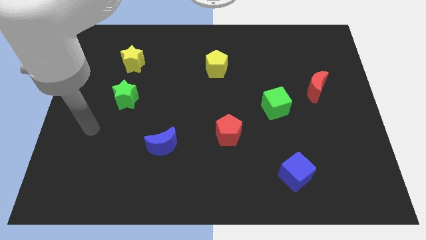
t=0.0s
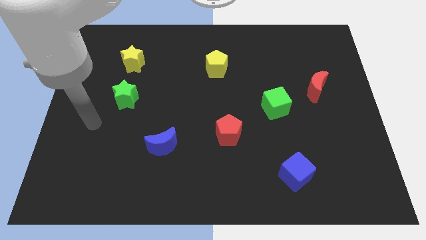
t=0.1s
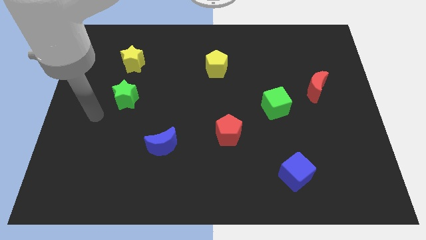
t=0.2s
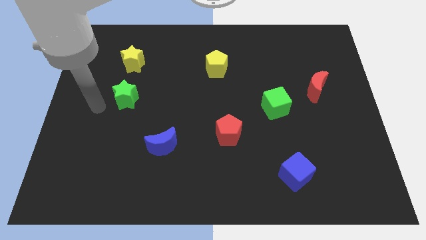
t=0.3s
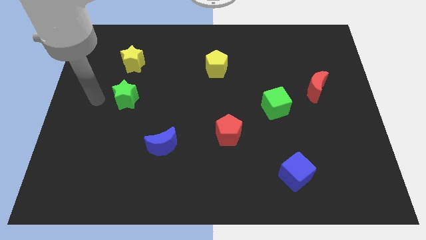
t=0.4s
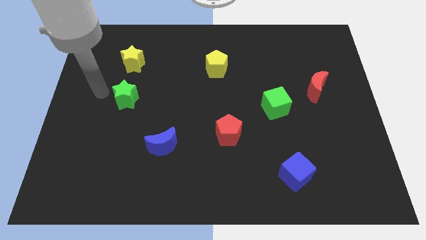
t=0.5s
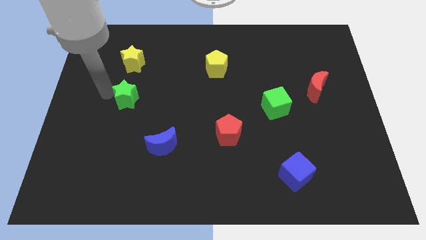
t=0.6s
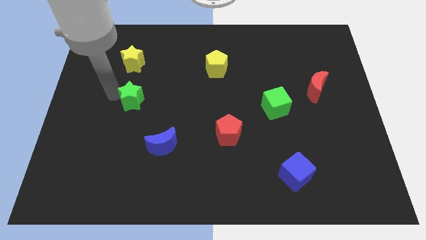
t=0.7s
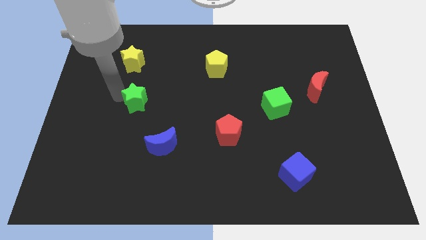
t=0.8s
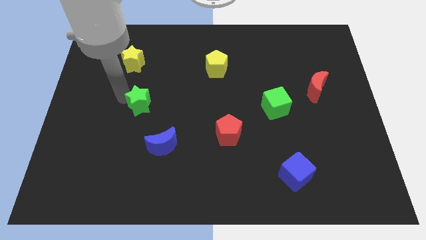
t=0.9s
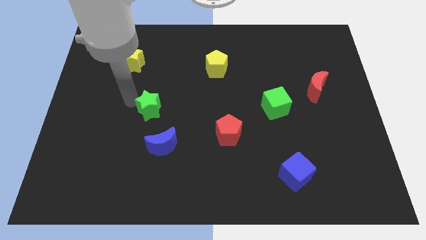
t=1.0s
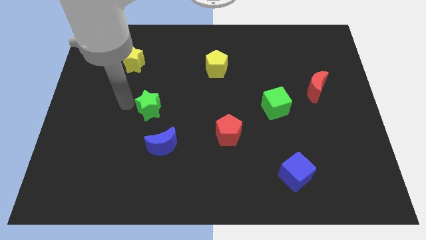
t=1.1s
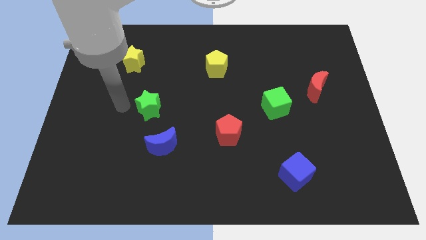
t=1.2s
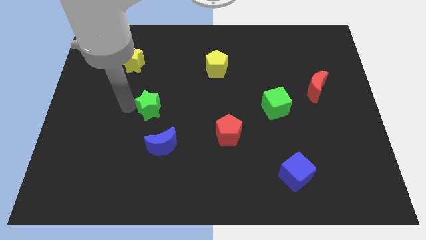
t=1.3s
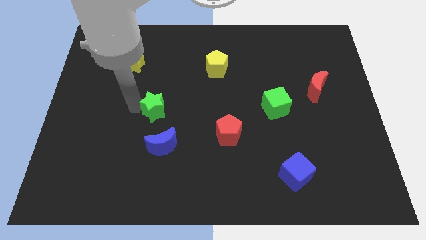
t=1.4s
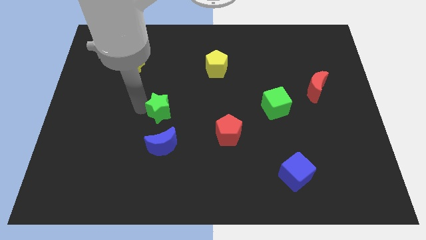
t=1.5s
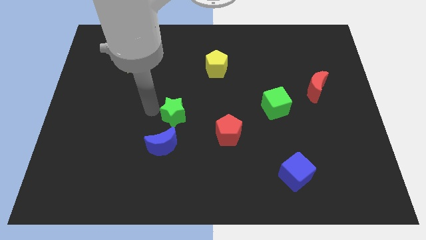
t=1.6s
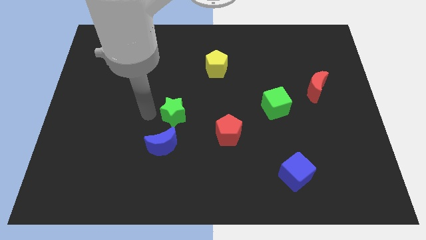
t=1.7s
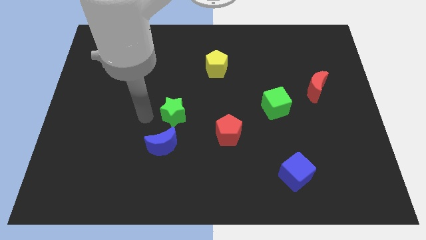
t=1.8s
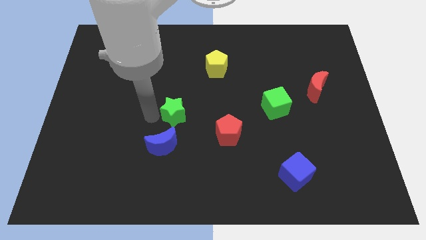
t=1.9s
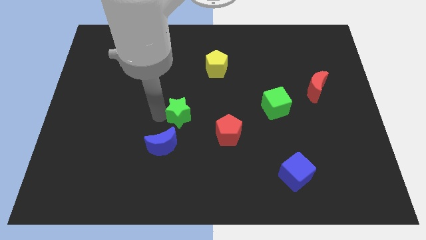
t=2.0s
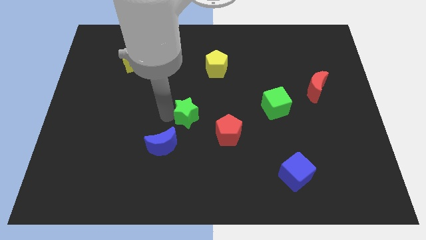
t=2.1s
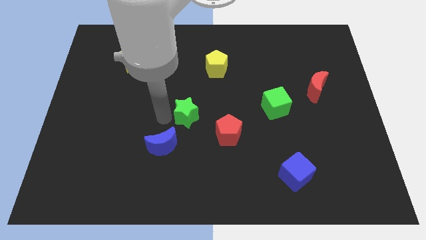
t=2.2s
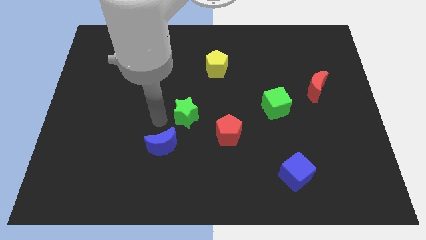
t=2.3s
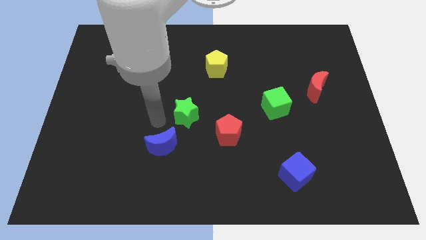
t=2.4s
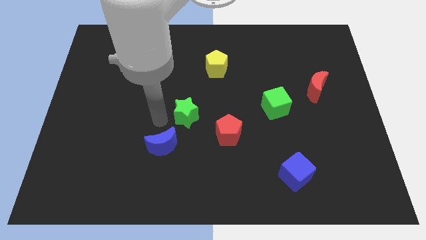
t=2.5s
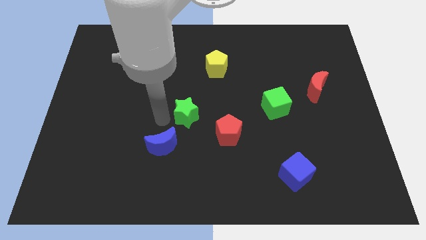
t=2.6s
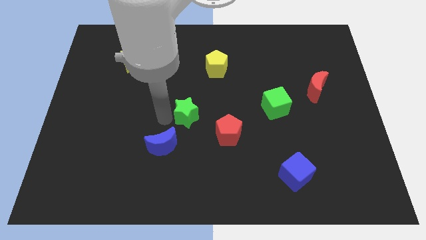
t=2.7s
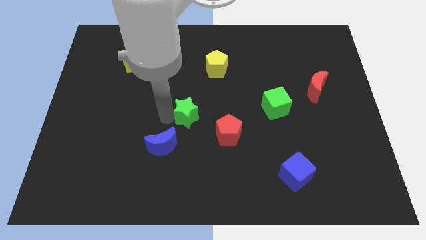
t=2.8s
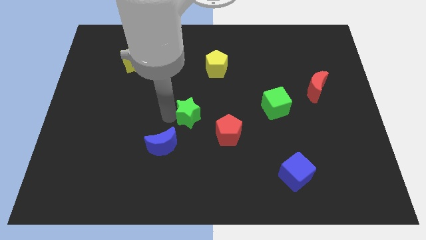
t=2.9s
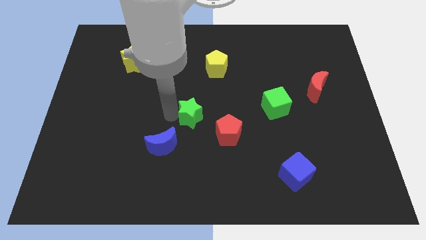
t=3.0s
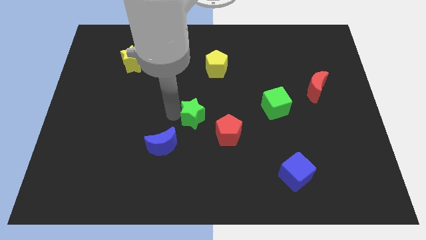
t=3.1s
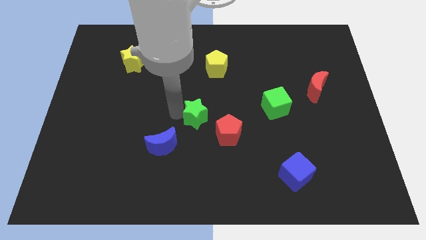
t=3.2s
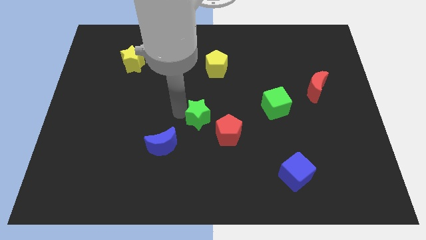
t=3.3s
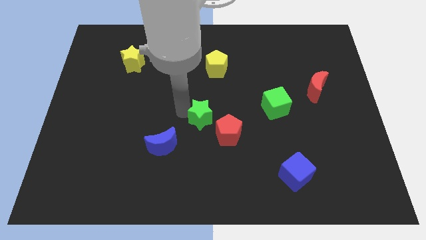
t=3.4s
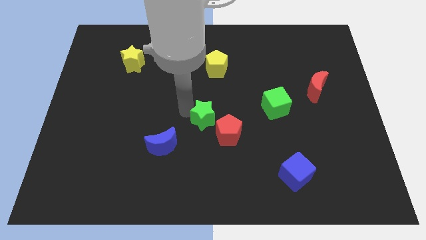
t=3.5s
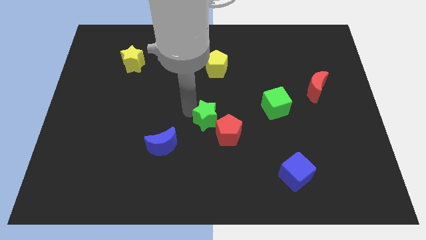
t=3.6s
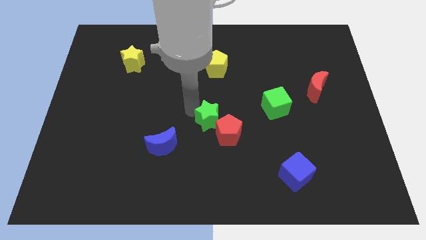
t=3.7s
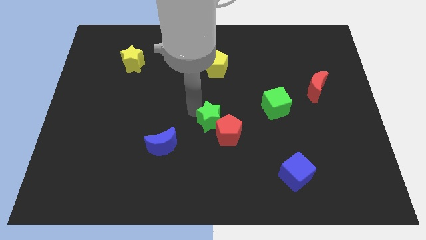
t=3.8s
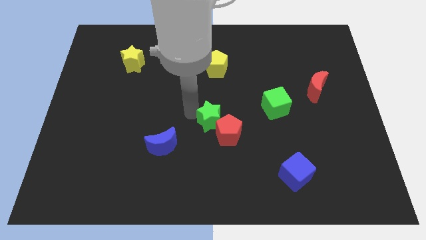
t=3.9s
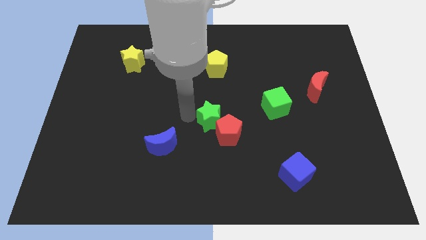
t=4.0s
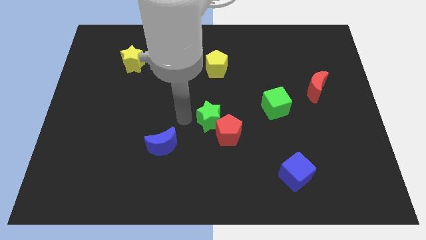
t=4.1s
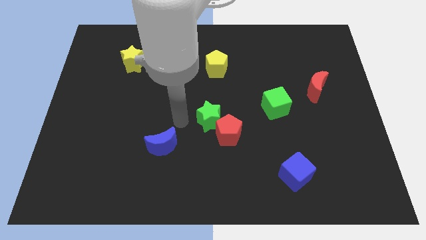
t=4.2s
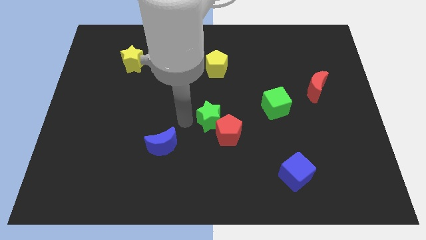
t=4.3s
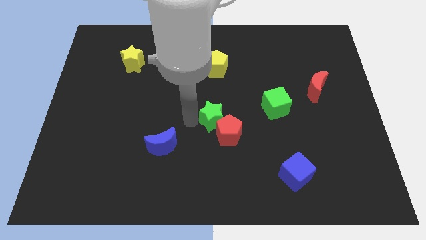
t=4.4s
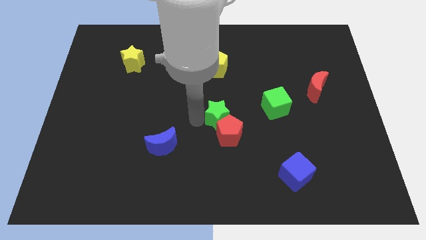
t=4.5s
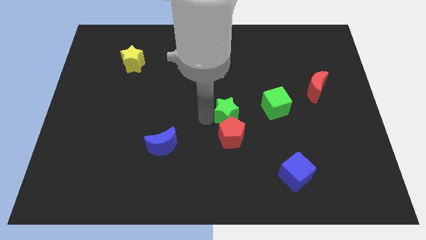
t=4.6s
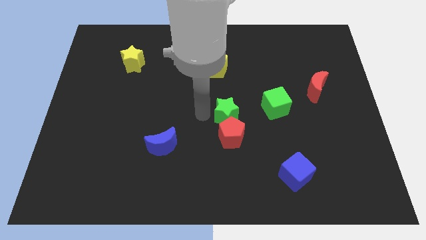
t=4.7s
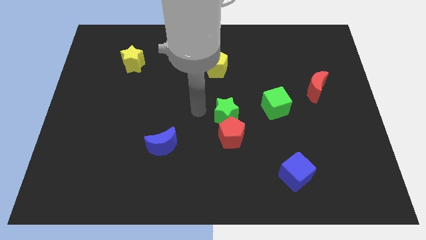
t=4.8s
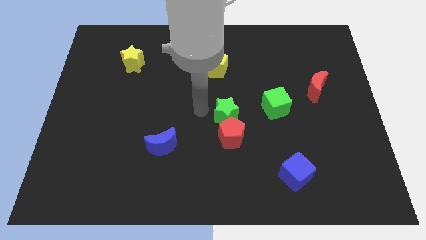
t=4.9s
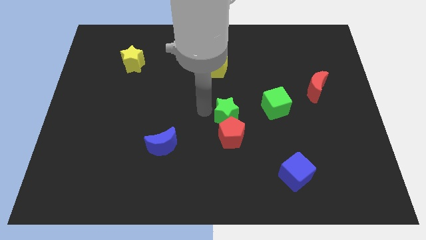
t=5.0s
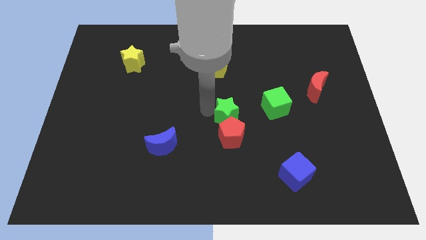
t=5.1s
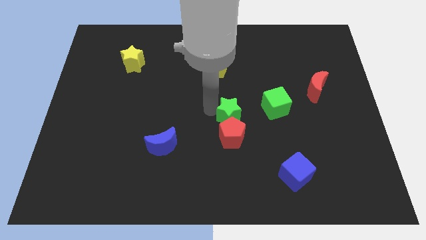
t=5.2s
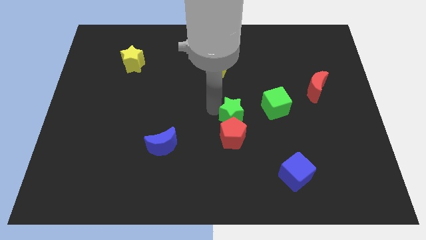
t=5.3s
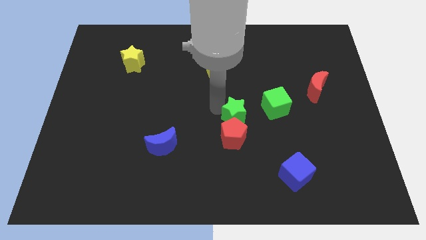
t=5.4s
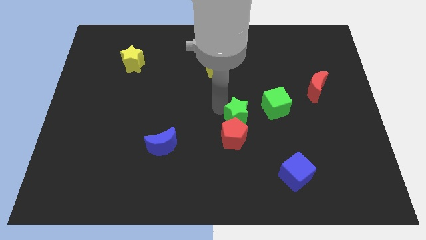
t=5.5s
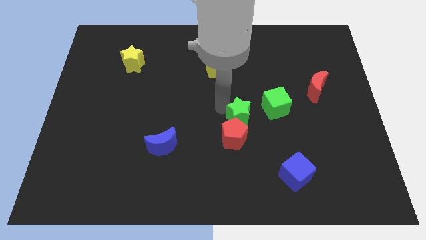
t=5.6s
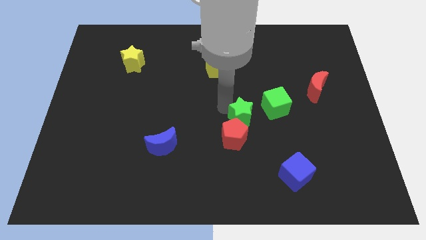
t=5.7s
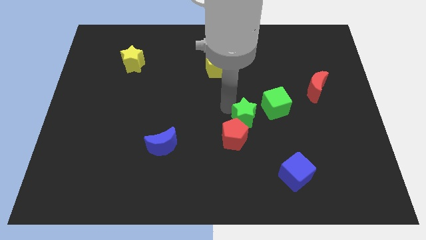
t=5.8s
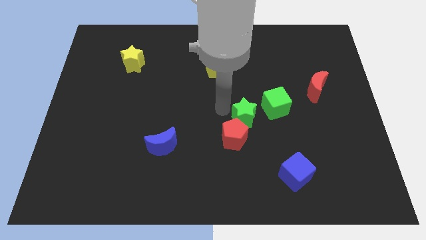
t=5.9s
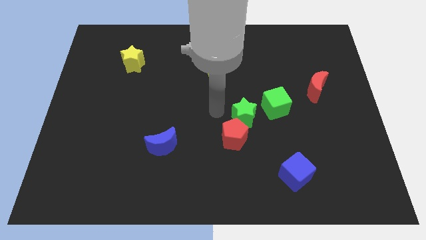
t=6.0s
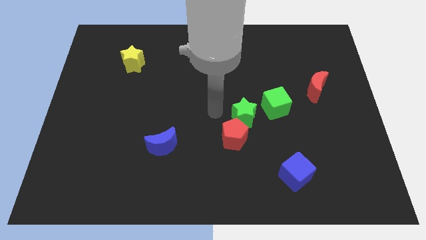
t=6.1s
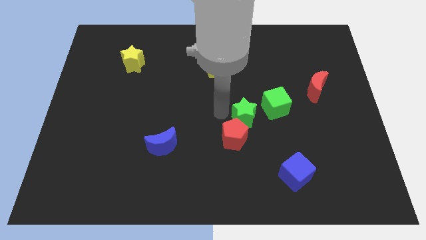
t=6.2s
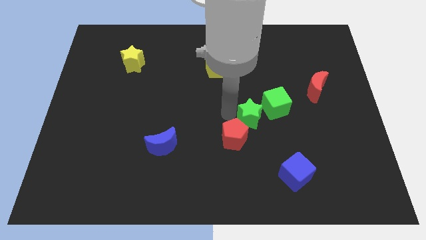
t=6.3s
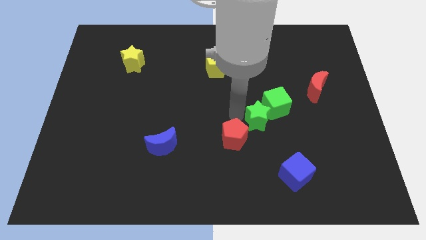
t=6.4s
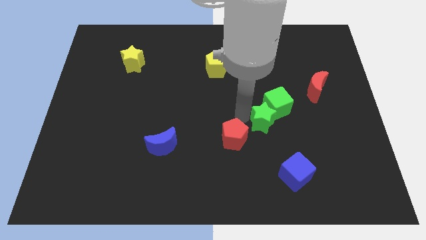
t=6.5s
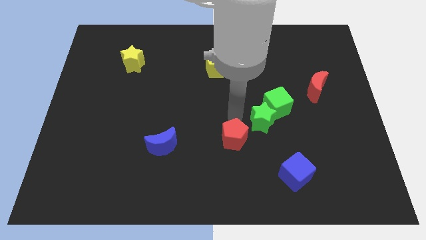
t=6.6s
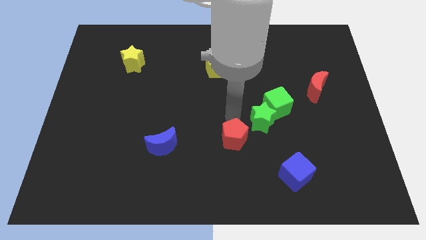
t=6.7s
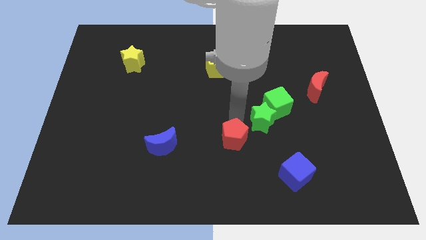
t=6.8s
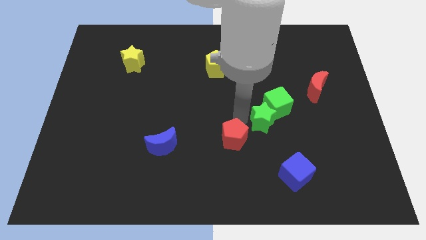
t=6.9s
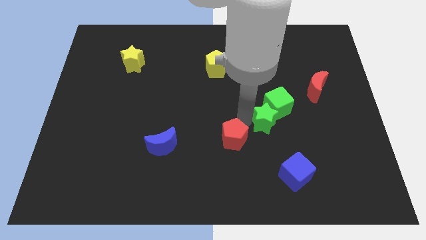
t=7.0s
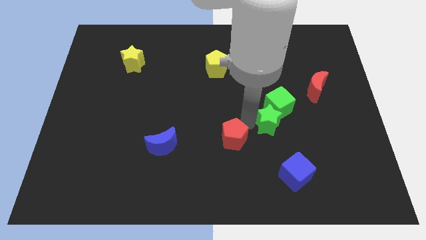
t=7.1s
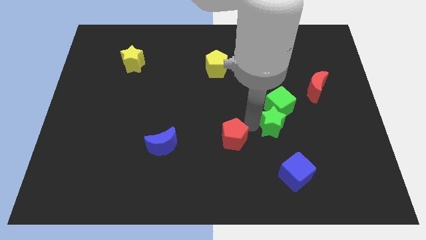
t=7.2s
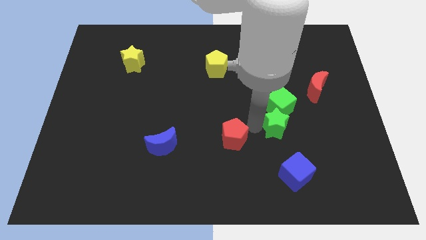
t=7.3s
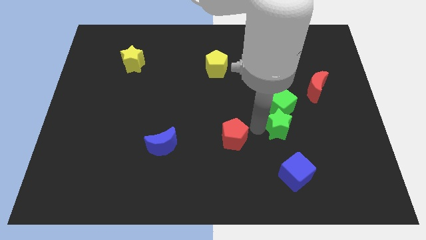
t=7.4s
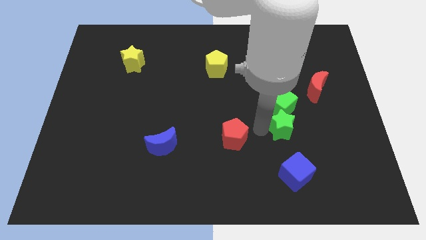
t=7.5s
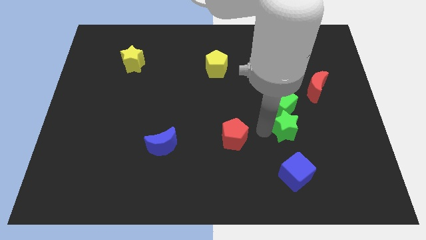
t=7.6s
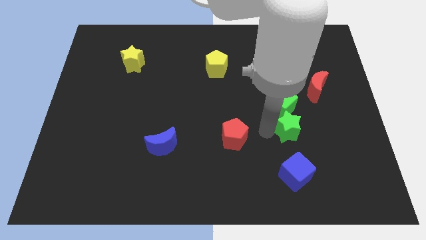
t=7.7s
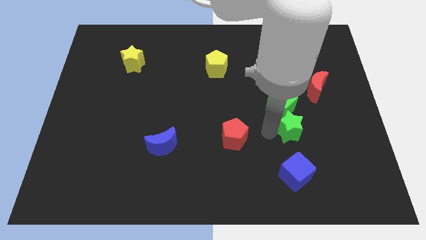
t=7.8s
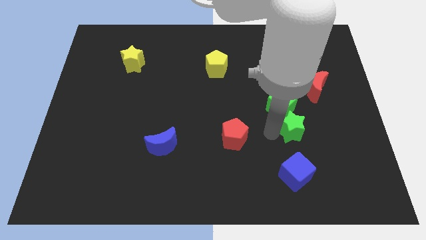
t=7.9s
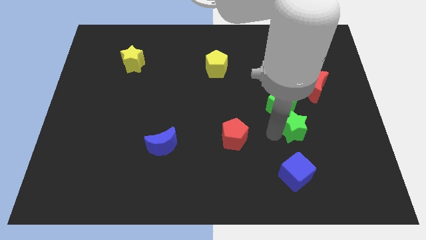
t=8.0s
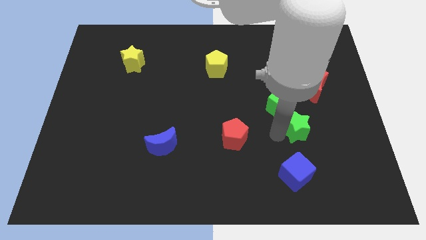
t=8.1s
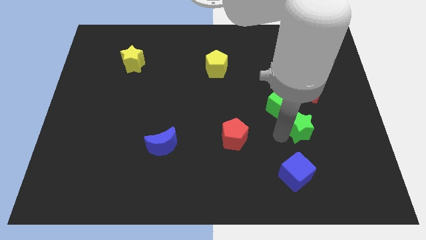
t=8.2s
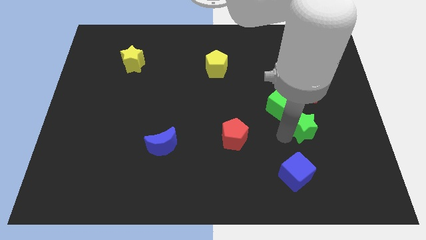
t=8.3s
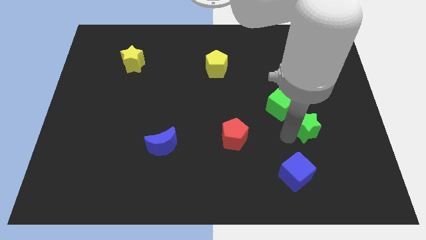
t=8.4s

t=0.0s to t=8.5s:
move the green star to the bottom side of the red moon
